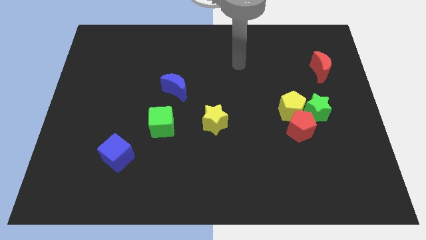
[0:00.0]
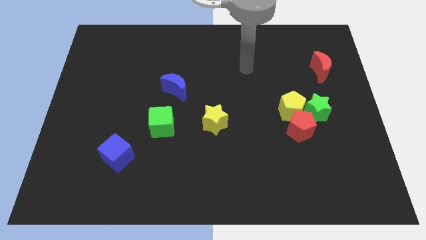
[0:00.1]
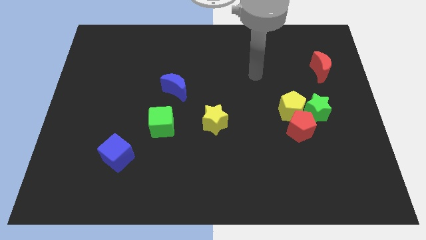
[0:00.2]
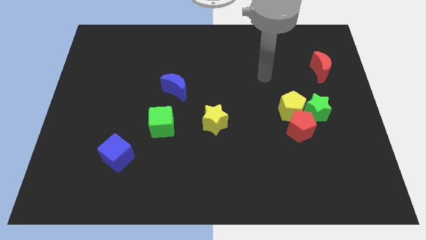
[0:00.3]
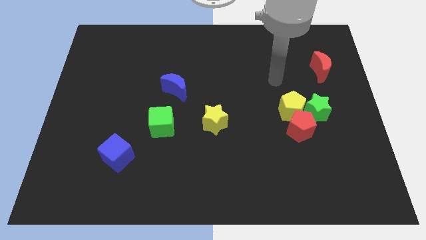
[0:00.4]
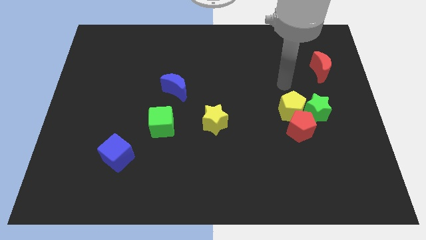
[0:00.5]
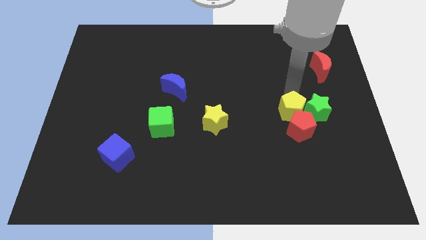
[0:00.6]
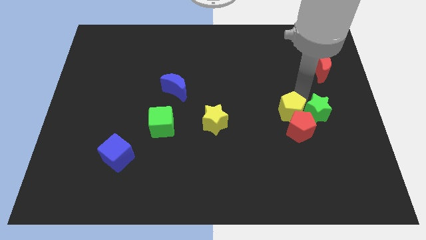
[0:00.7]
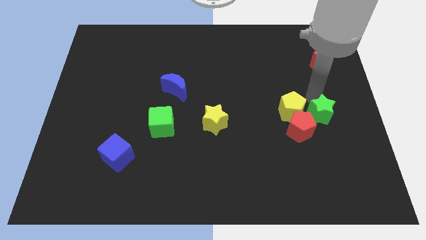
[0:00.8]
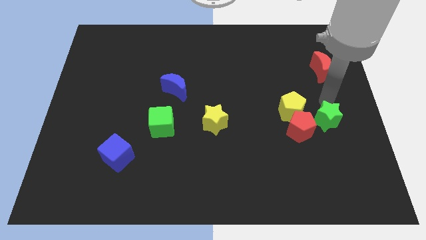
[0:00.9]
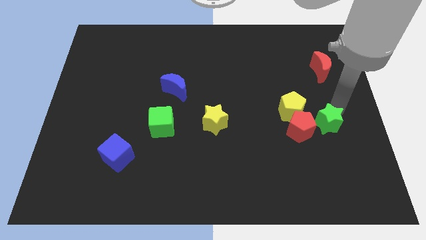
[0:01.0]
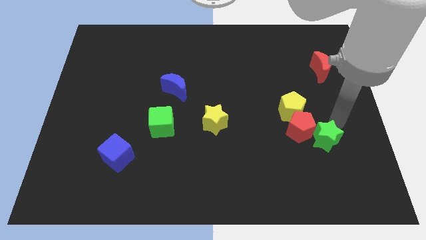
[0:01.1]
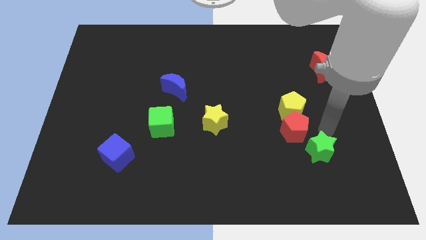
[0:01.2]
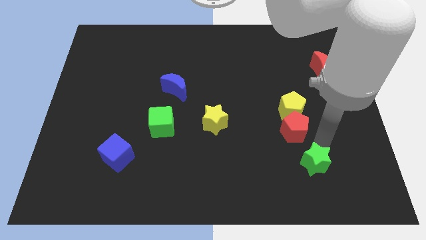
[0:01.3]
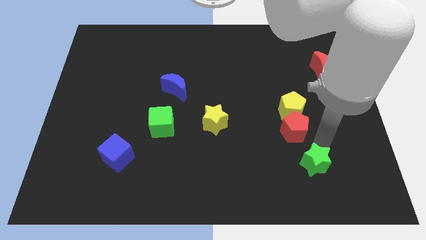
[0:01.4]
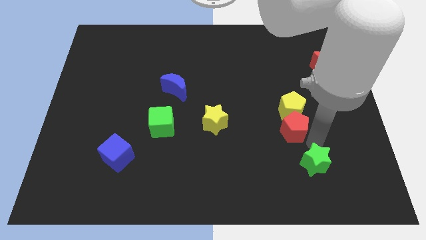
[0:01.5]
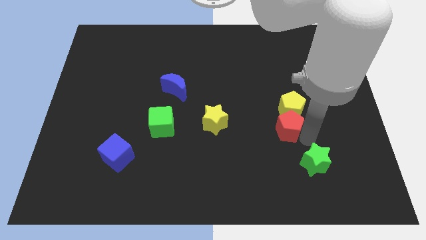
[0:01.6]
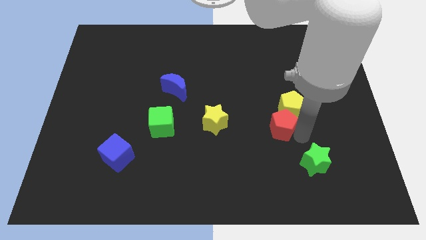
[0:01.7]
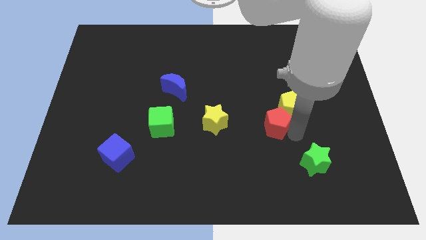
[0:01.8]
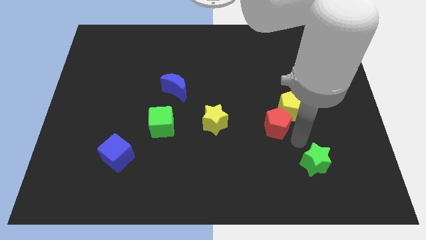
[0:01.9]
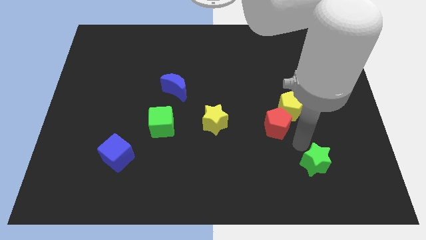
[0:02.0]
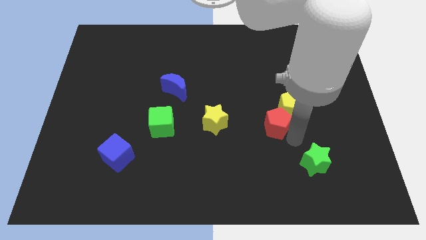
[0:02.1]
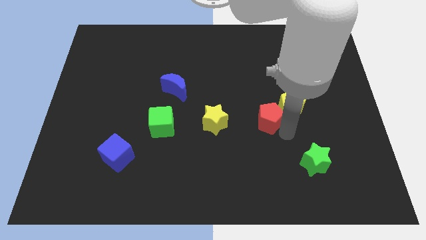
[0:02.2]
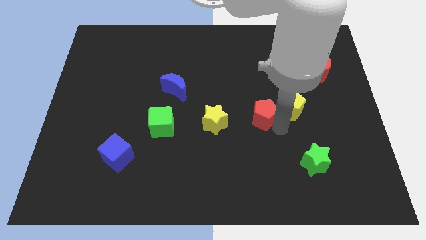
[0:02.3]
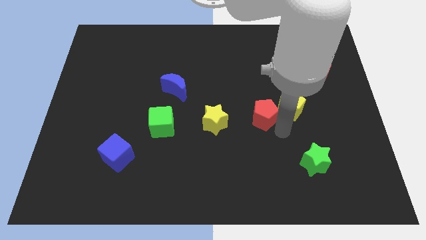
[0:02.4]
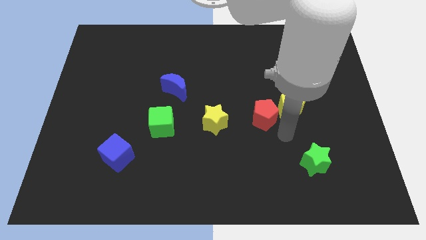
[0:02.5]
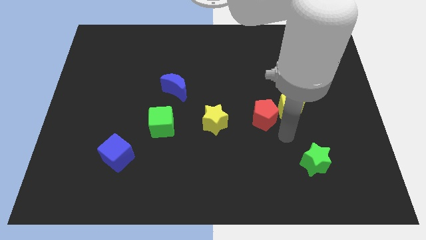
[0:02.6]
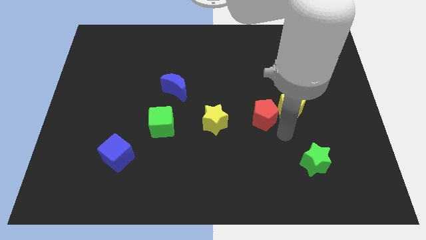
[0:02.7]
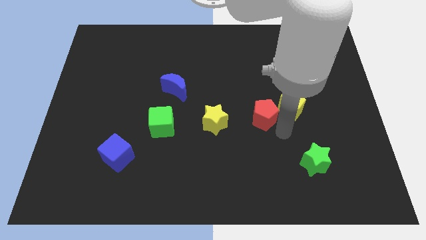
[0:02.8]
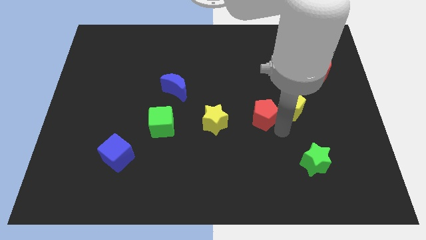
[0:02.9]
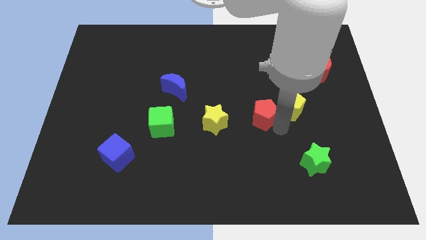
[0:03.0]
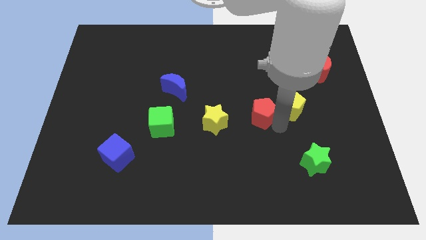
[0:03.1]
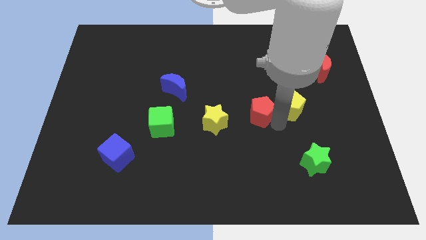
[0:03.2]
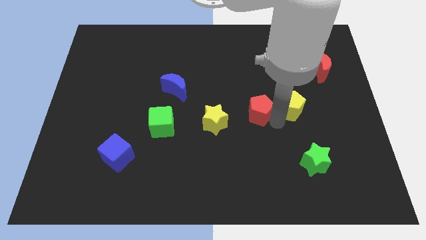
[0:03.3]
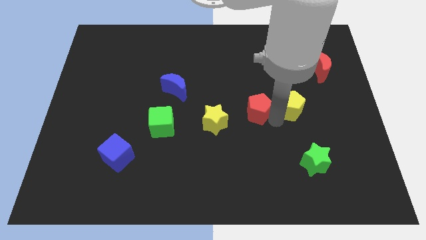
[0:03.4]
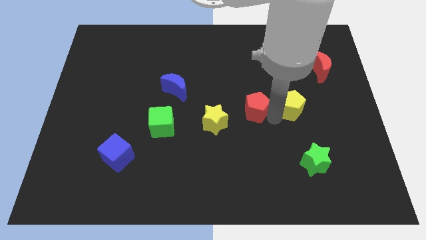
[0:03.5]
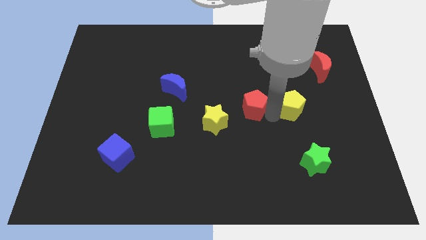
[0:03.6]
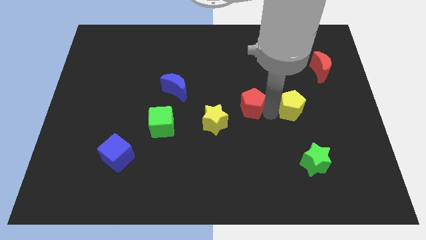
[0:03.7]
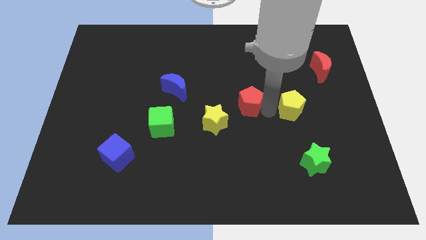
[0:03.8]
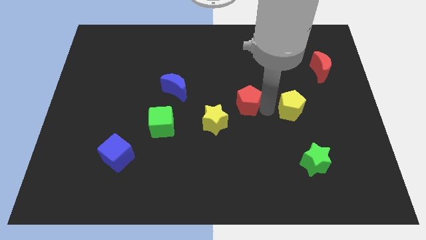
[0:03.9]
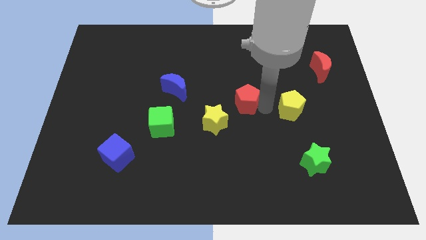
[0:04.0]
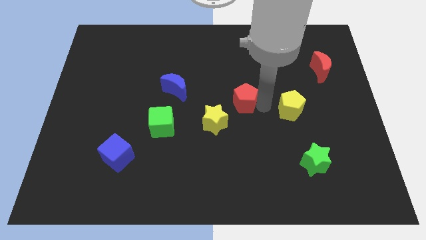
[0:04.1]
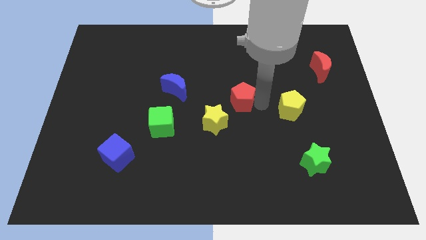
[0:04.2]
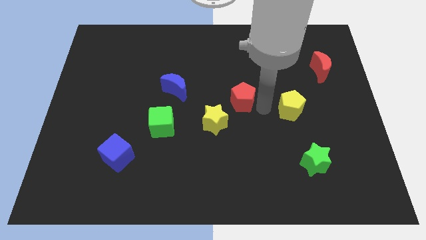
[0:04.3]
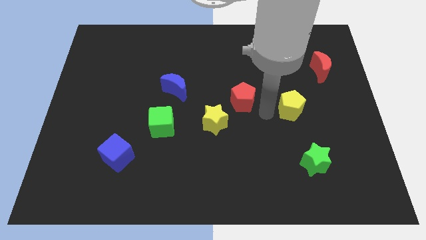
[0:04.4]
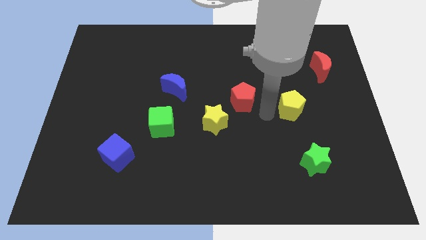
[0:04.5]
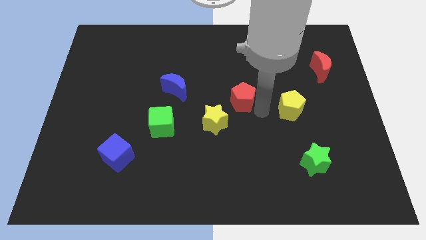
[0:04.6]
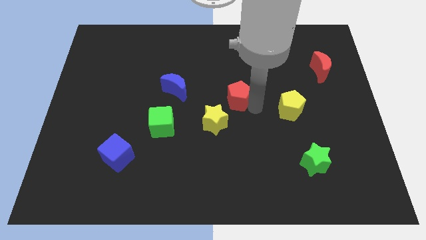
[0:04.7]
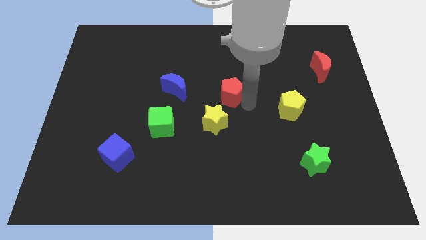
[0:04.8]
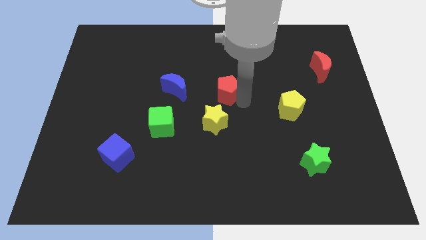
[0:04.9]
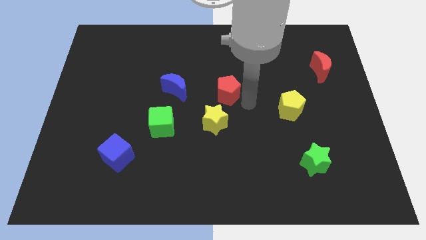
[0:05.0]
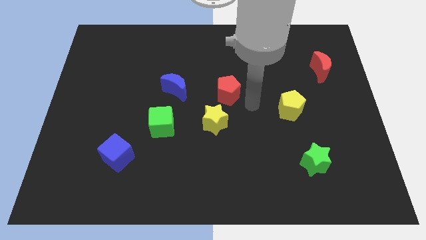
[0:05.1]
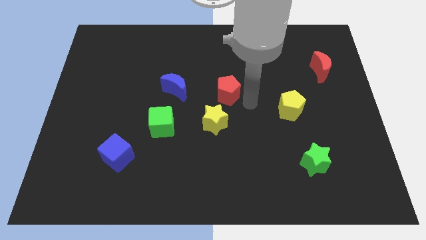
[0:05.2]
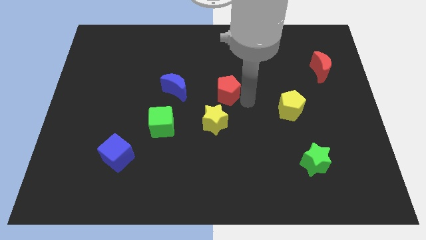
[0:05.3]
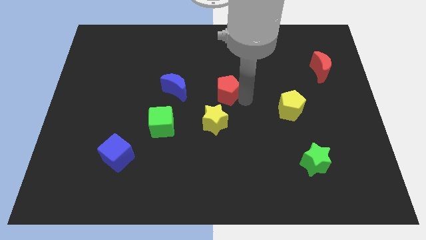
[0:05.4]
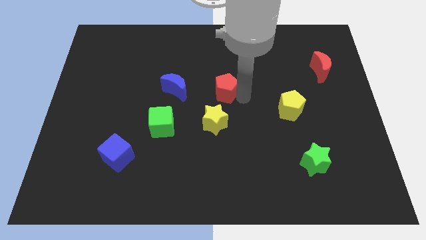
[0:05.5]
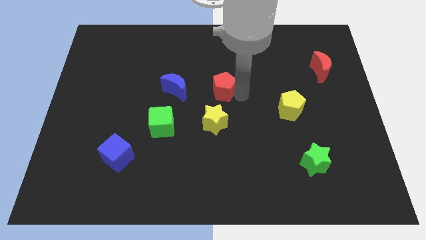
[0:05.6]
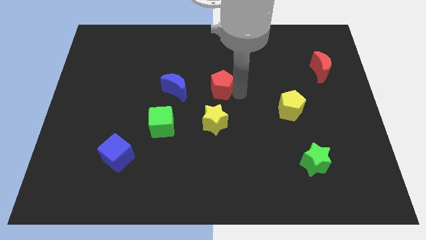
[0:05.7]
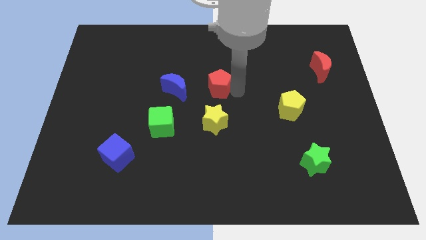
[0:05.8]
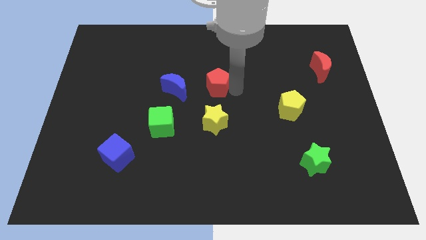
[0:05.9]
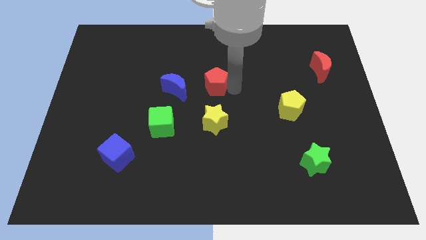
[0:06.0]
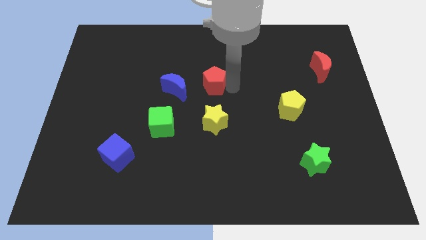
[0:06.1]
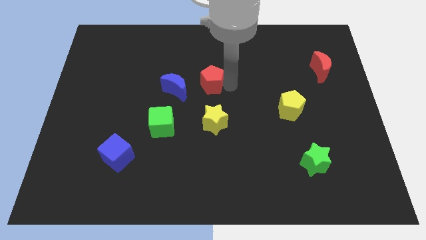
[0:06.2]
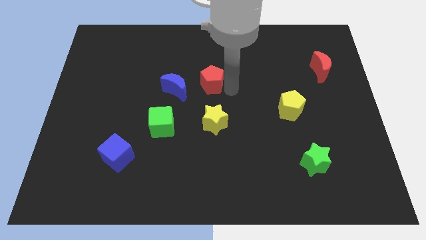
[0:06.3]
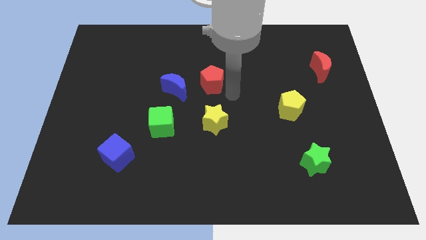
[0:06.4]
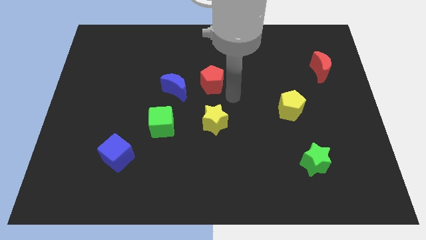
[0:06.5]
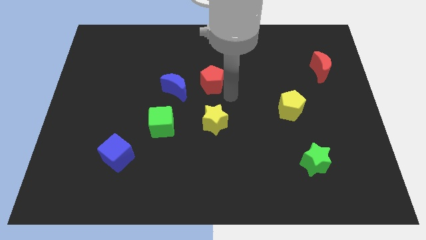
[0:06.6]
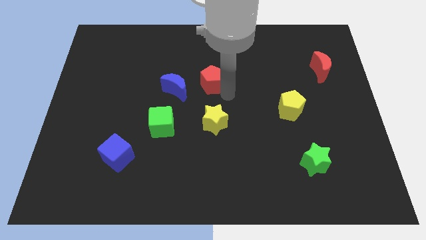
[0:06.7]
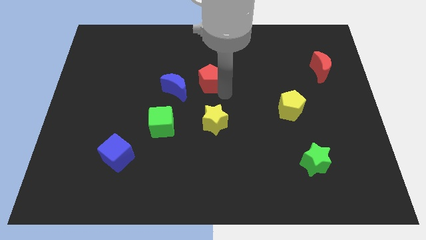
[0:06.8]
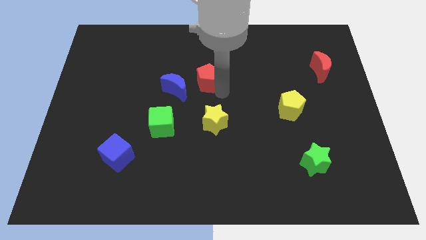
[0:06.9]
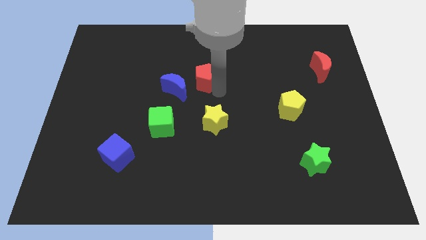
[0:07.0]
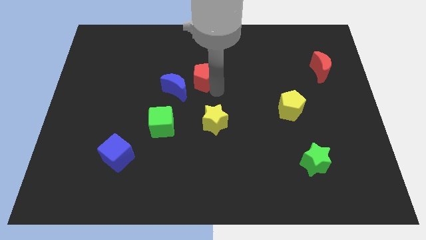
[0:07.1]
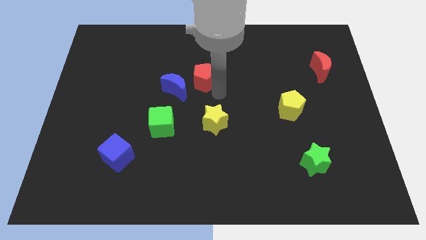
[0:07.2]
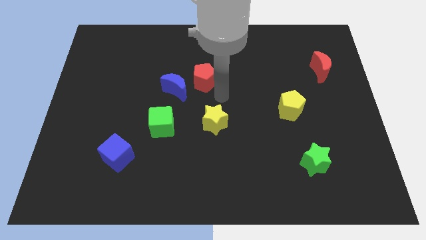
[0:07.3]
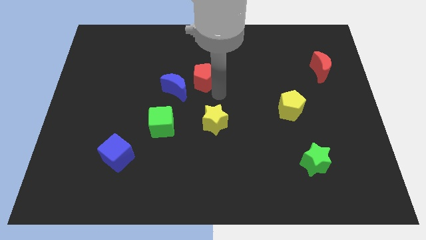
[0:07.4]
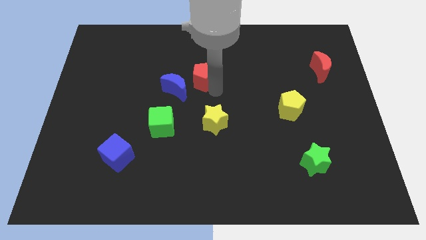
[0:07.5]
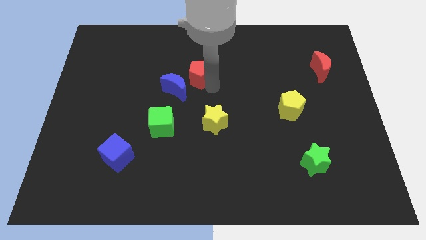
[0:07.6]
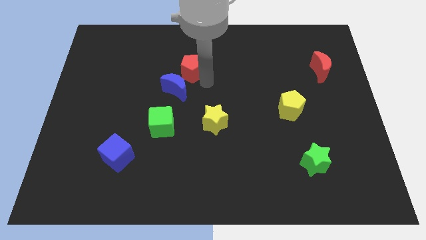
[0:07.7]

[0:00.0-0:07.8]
move the red pentagon above the blue moon
